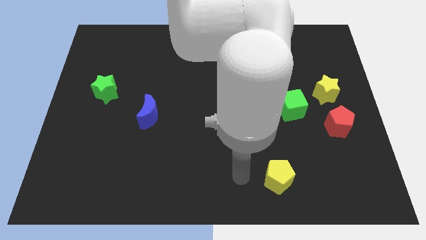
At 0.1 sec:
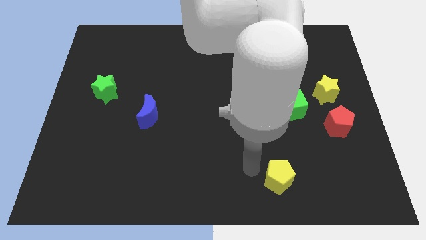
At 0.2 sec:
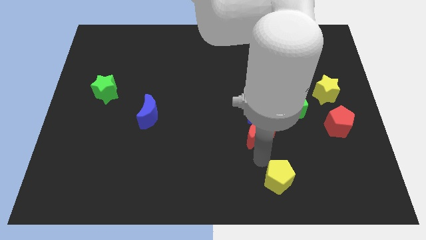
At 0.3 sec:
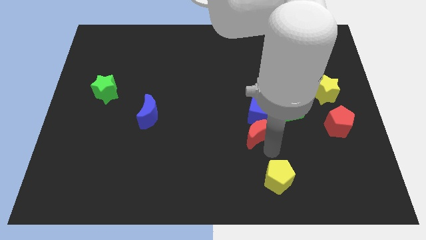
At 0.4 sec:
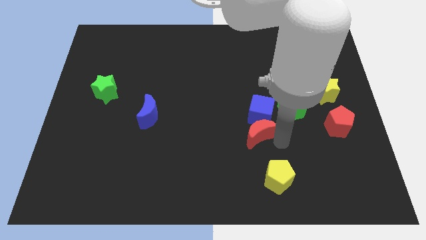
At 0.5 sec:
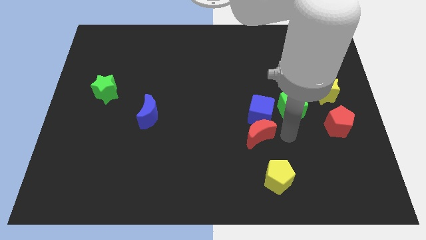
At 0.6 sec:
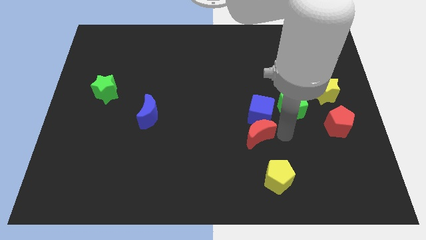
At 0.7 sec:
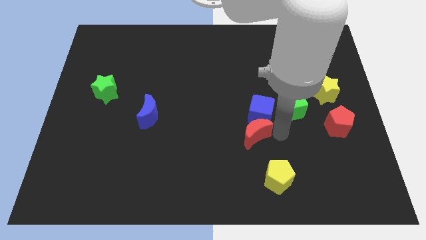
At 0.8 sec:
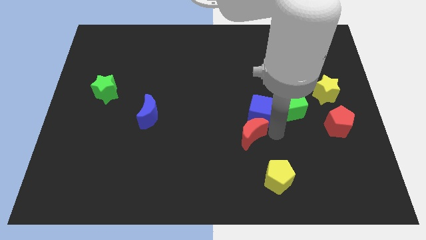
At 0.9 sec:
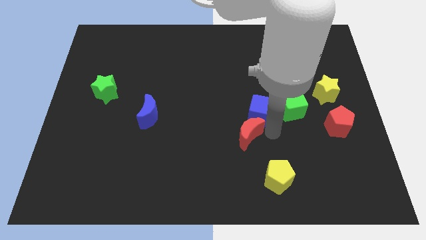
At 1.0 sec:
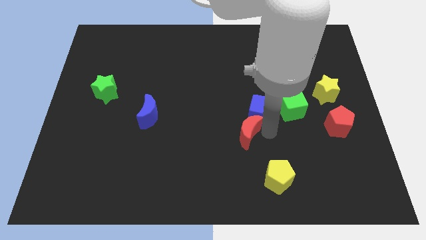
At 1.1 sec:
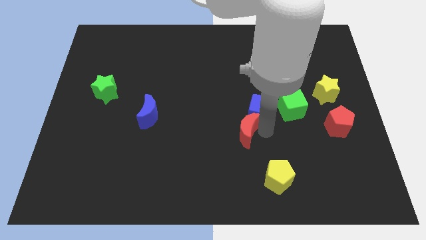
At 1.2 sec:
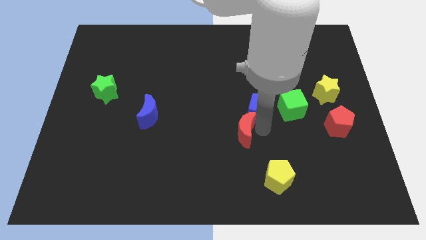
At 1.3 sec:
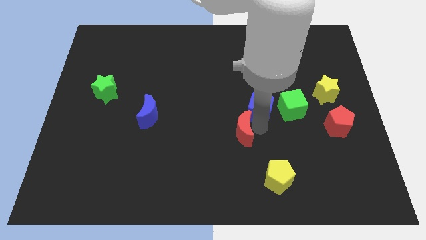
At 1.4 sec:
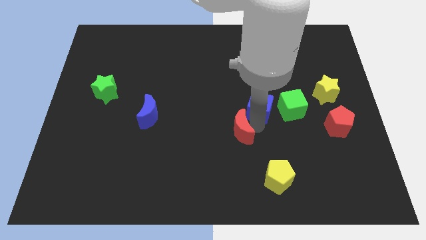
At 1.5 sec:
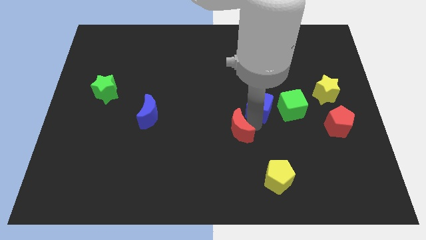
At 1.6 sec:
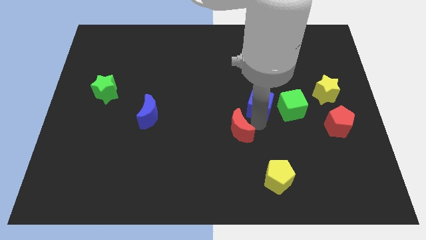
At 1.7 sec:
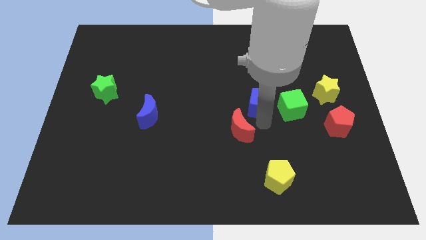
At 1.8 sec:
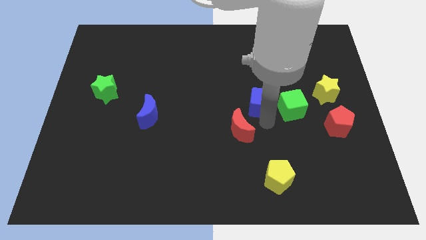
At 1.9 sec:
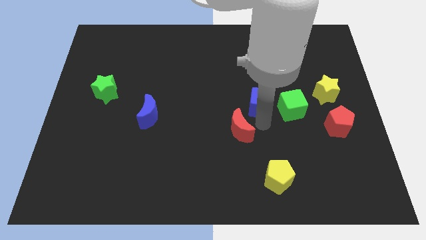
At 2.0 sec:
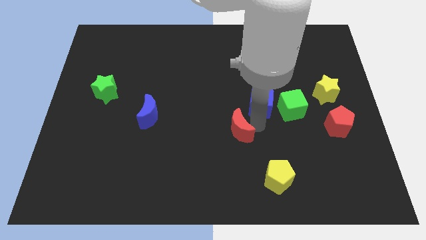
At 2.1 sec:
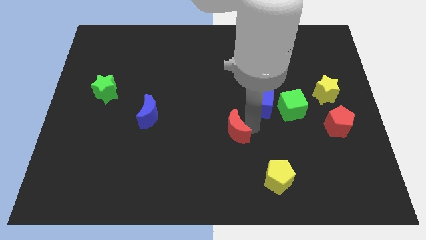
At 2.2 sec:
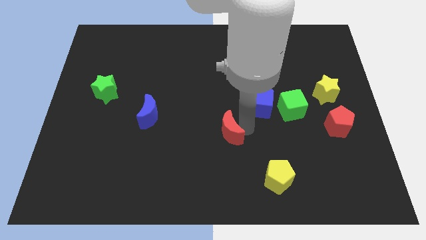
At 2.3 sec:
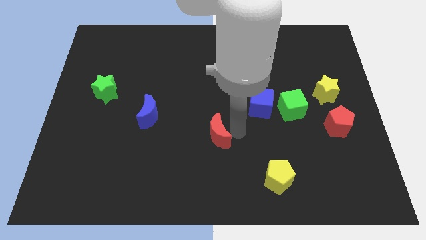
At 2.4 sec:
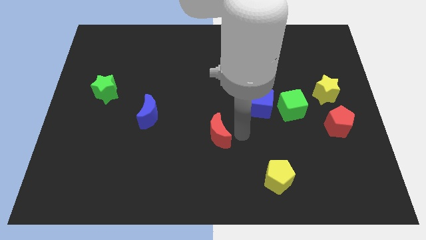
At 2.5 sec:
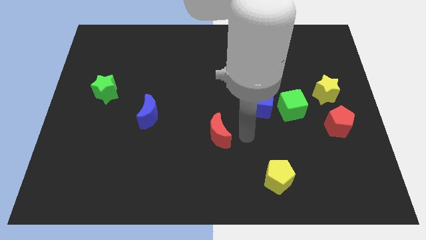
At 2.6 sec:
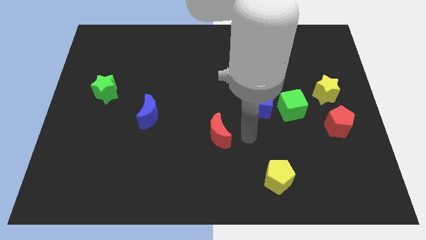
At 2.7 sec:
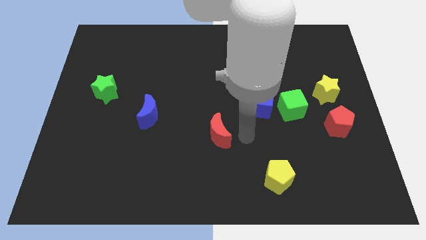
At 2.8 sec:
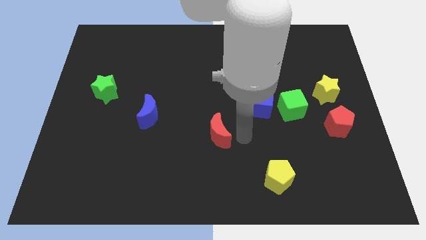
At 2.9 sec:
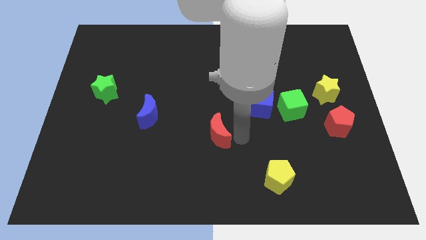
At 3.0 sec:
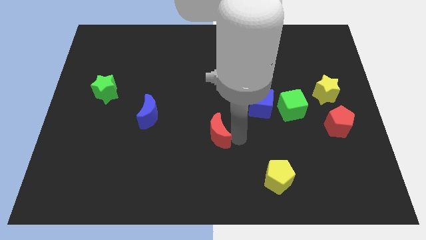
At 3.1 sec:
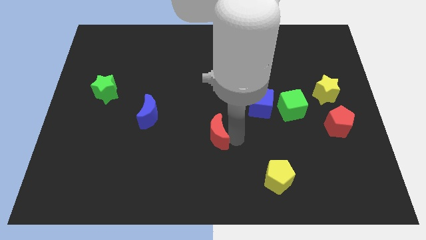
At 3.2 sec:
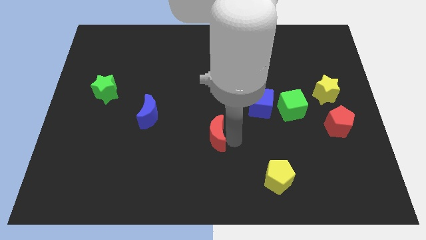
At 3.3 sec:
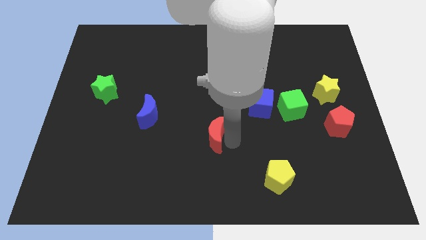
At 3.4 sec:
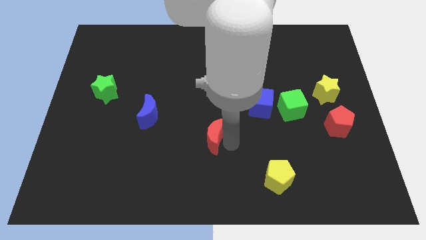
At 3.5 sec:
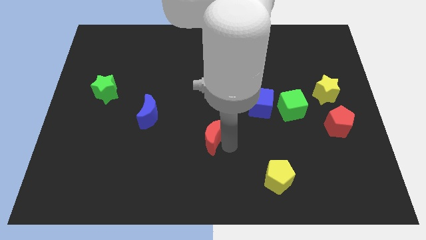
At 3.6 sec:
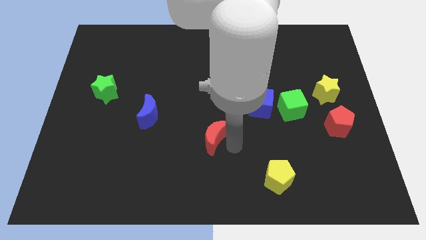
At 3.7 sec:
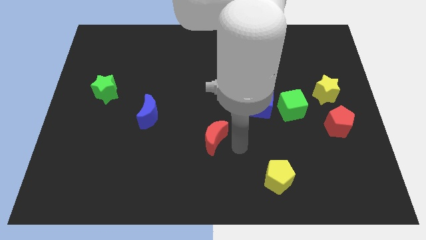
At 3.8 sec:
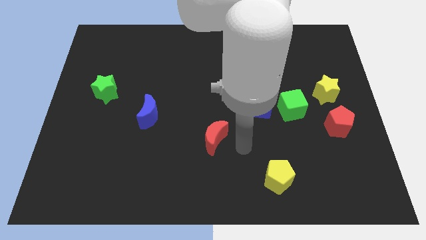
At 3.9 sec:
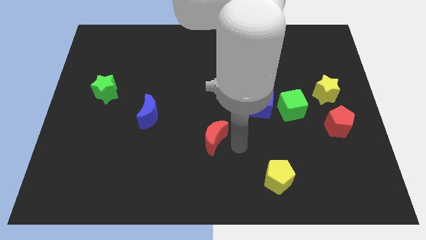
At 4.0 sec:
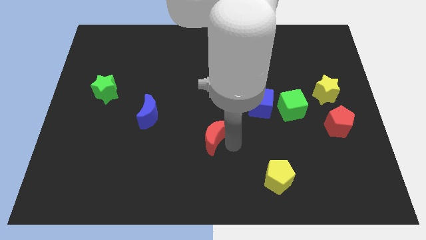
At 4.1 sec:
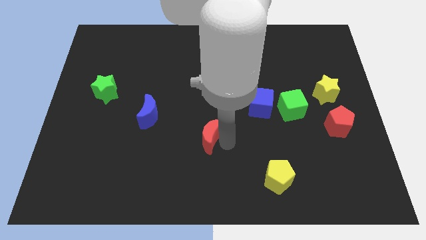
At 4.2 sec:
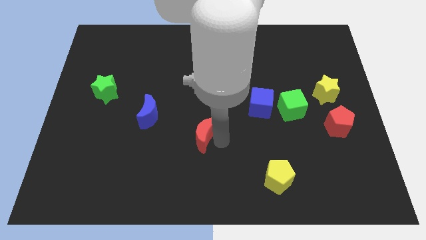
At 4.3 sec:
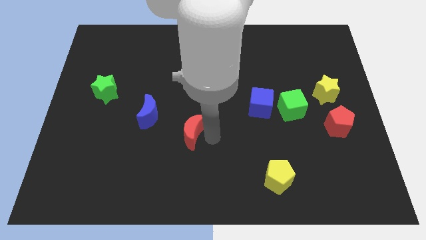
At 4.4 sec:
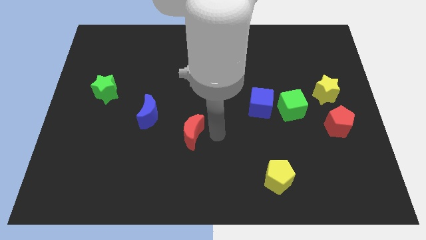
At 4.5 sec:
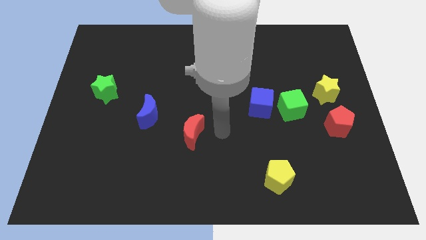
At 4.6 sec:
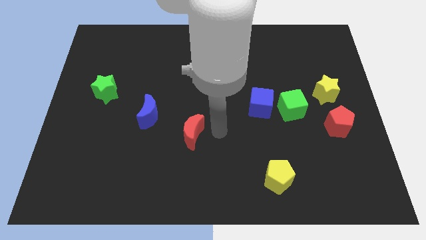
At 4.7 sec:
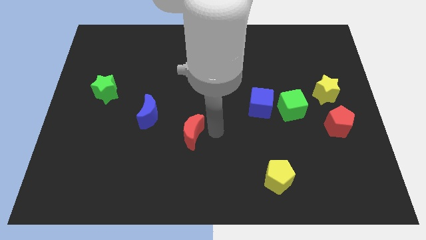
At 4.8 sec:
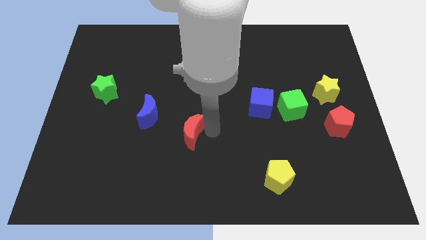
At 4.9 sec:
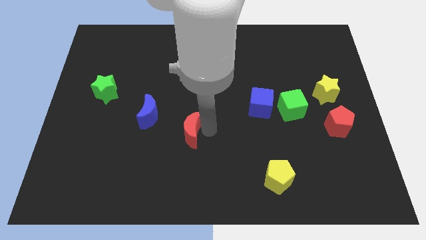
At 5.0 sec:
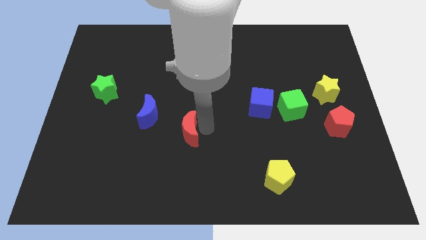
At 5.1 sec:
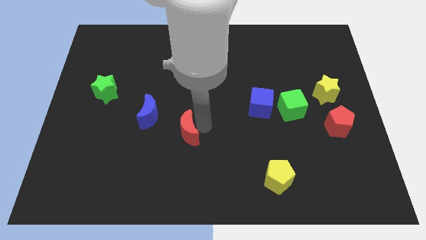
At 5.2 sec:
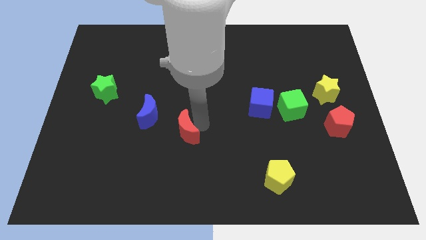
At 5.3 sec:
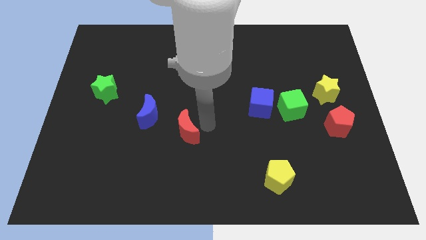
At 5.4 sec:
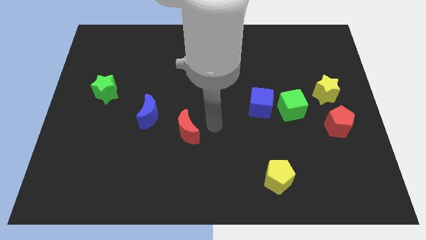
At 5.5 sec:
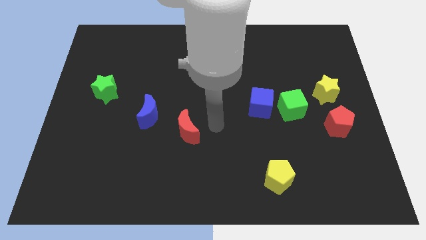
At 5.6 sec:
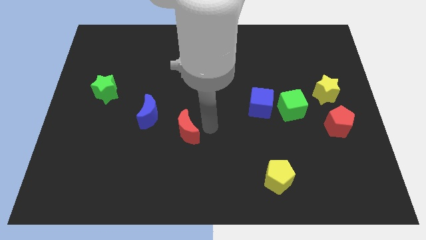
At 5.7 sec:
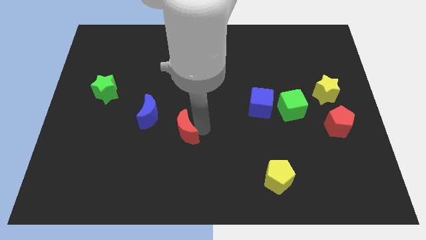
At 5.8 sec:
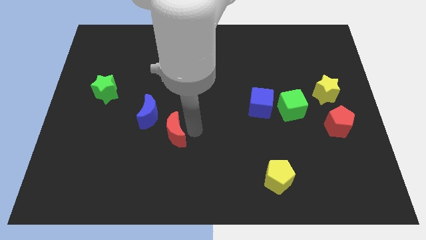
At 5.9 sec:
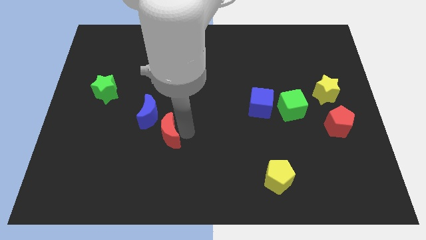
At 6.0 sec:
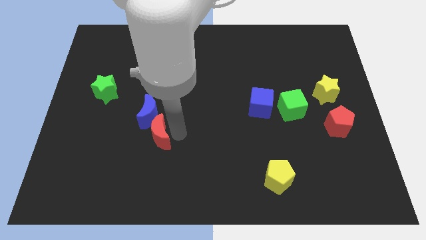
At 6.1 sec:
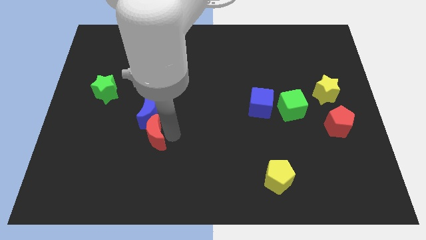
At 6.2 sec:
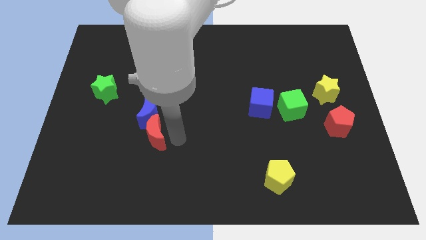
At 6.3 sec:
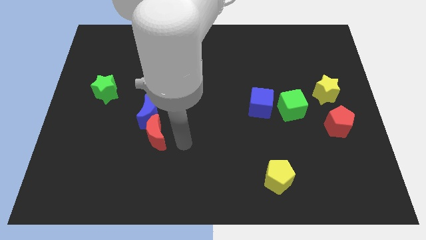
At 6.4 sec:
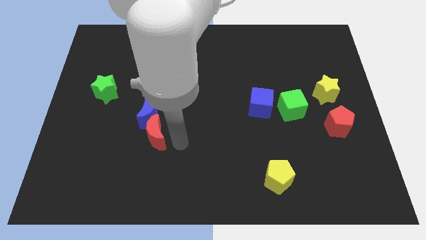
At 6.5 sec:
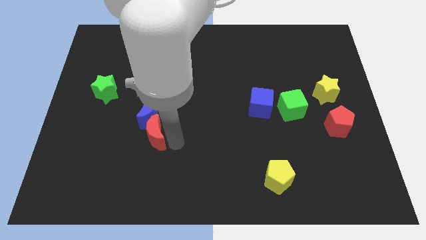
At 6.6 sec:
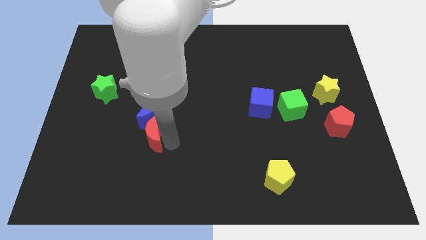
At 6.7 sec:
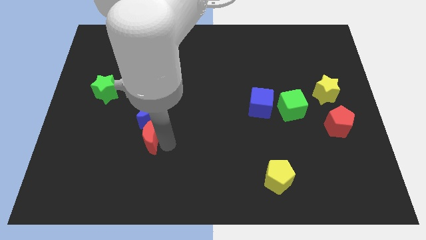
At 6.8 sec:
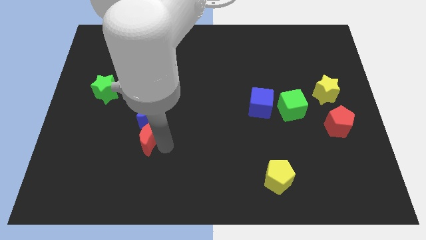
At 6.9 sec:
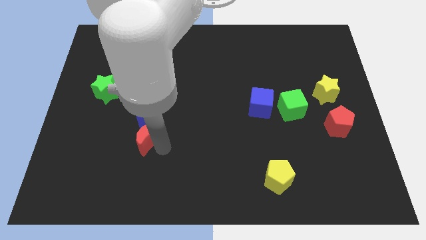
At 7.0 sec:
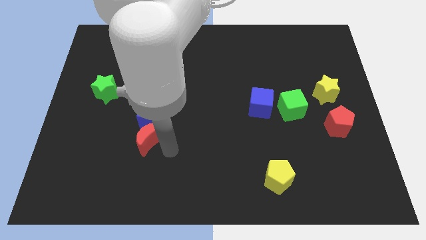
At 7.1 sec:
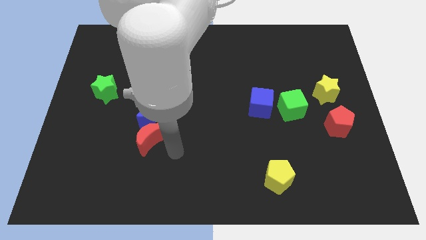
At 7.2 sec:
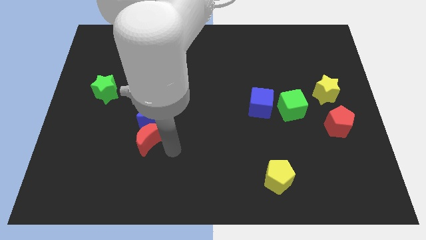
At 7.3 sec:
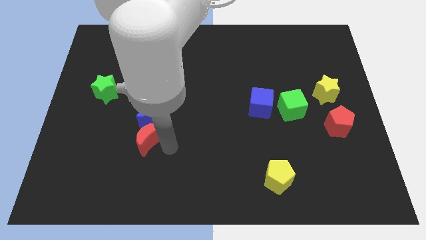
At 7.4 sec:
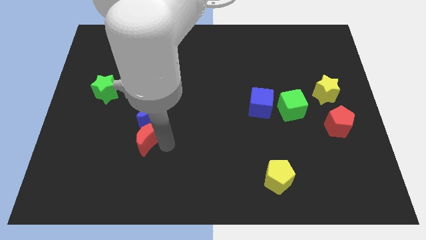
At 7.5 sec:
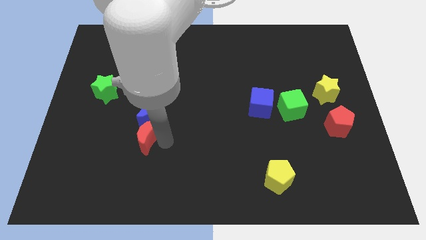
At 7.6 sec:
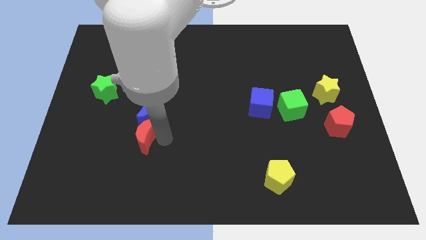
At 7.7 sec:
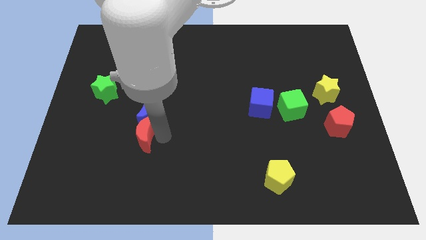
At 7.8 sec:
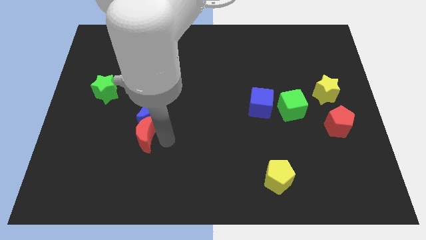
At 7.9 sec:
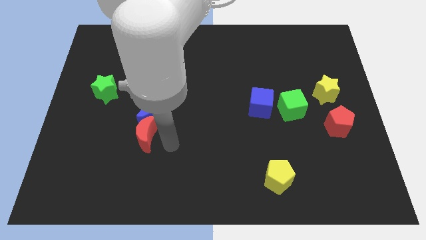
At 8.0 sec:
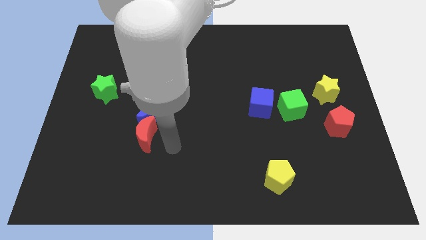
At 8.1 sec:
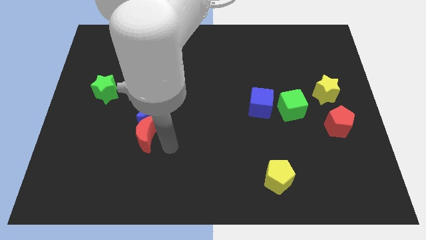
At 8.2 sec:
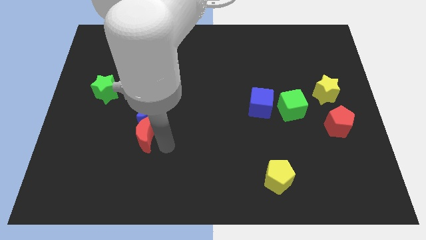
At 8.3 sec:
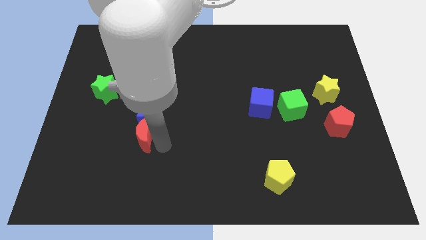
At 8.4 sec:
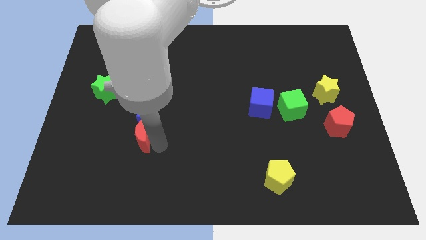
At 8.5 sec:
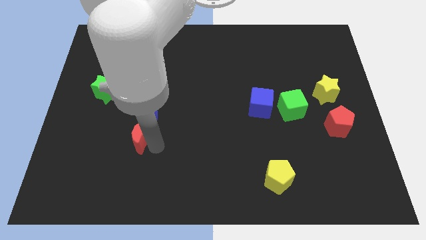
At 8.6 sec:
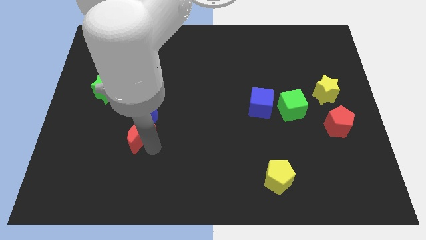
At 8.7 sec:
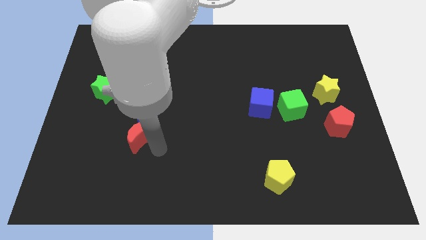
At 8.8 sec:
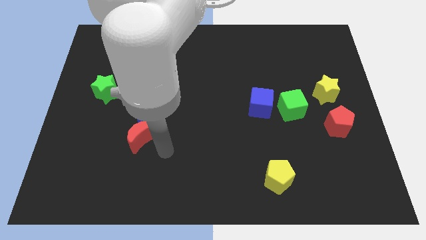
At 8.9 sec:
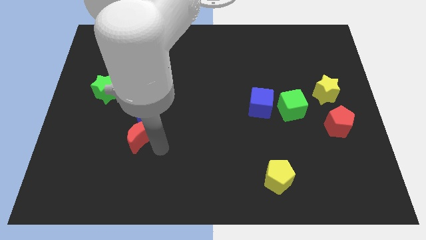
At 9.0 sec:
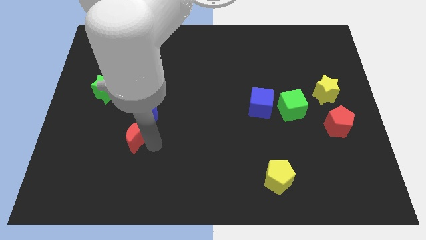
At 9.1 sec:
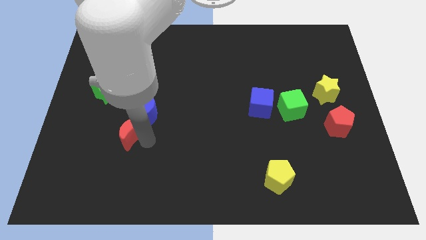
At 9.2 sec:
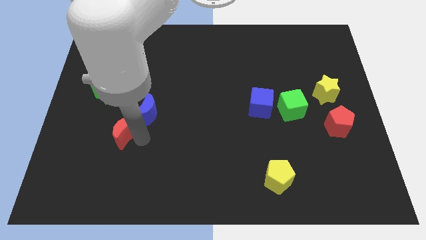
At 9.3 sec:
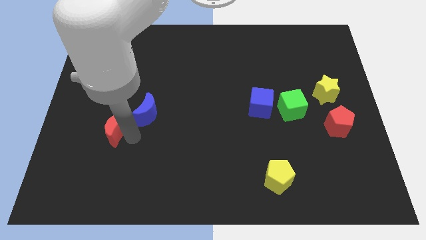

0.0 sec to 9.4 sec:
move the red moon left of the blue moon
